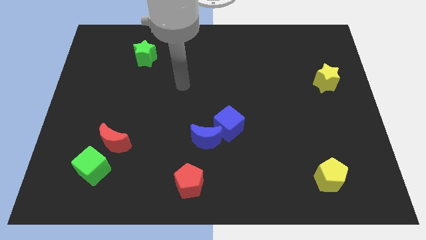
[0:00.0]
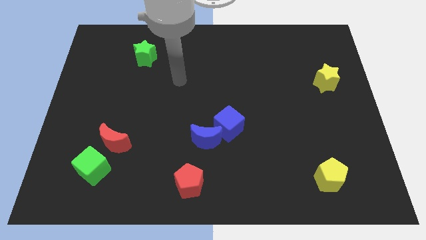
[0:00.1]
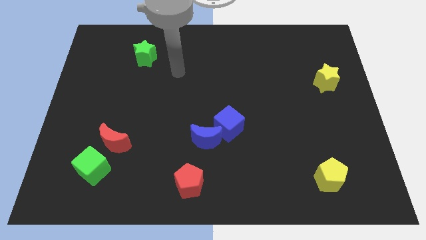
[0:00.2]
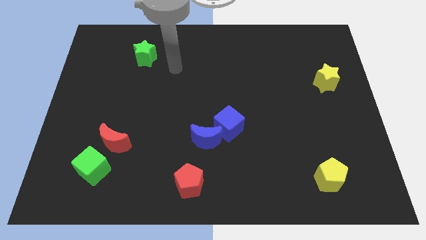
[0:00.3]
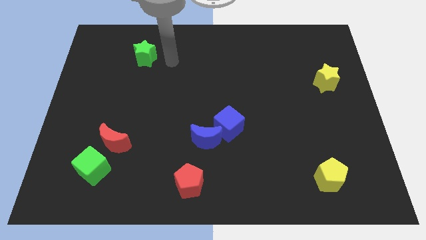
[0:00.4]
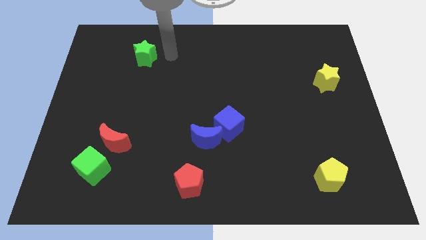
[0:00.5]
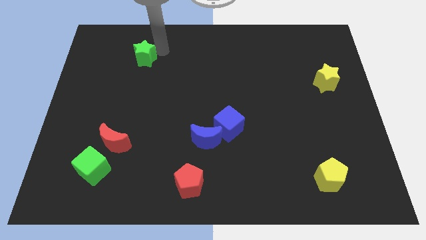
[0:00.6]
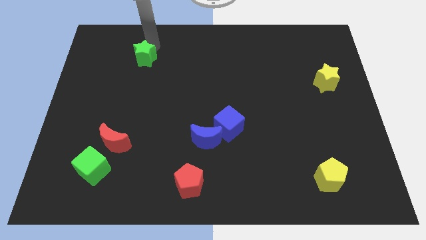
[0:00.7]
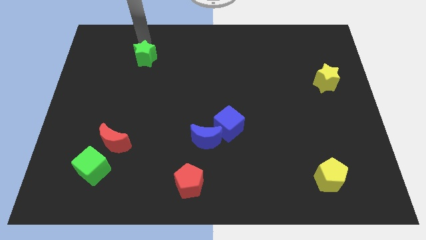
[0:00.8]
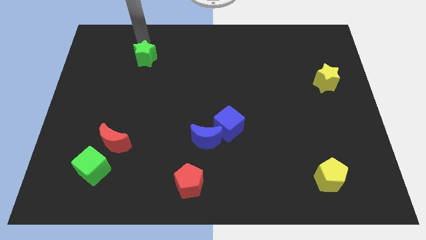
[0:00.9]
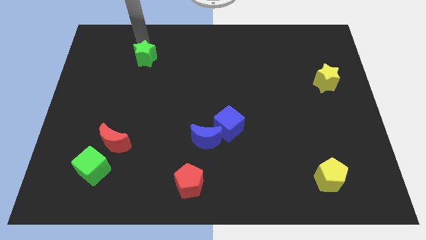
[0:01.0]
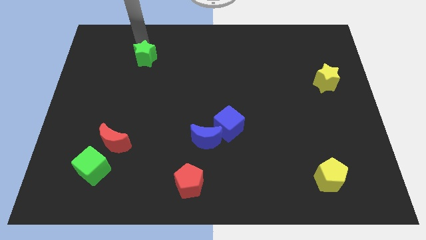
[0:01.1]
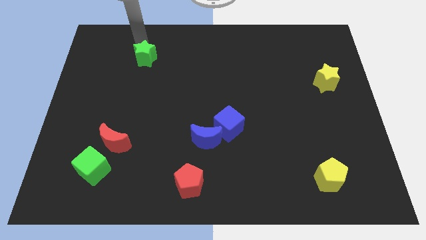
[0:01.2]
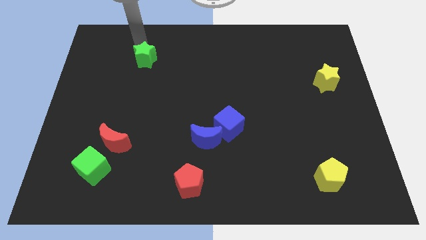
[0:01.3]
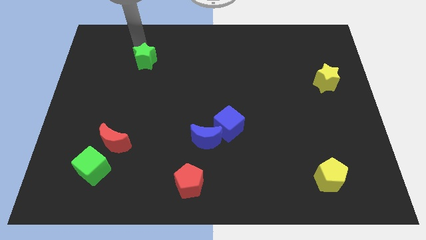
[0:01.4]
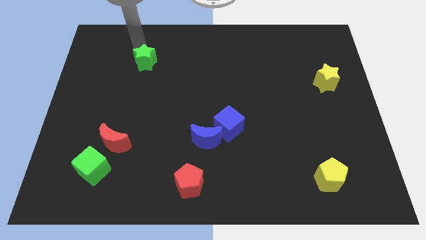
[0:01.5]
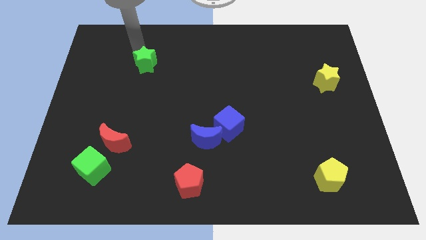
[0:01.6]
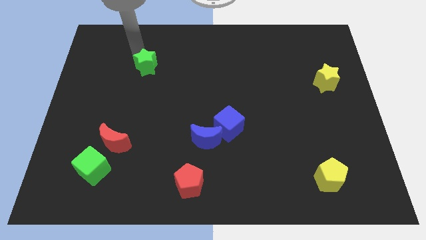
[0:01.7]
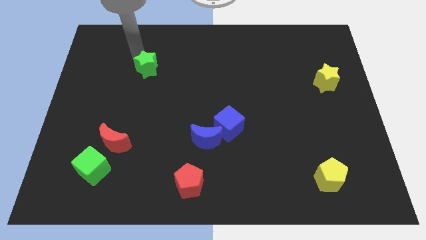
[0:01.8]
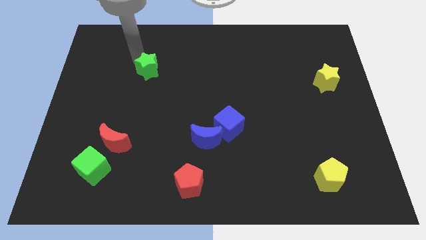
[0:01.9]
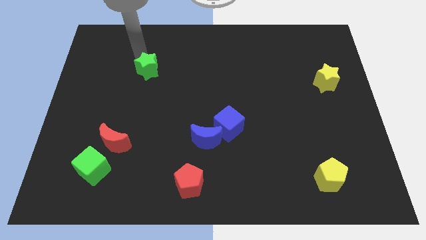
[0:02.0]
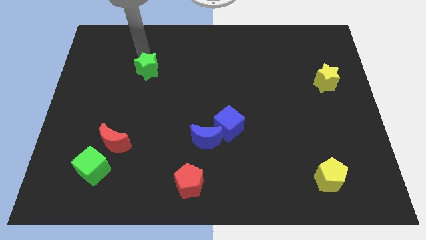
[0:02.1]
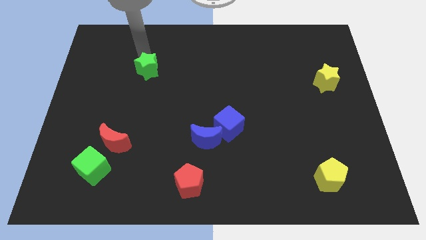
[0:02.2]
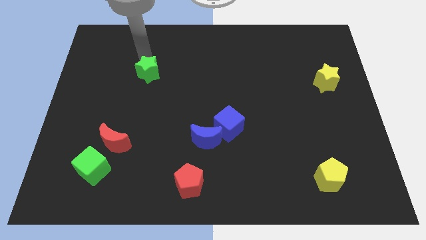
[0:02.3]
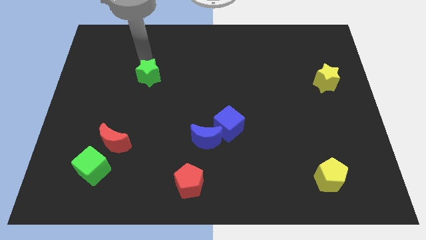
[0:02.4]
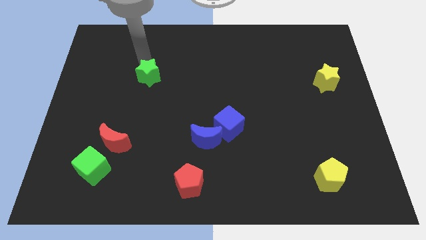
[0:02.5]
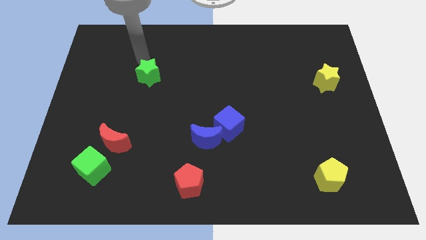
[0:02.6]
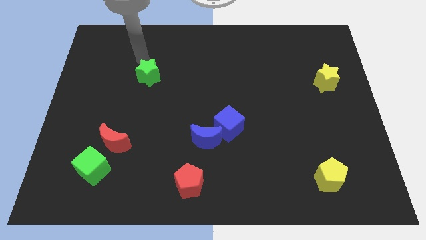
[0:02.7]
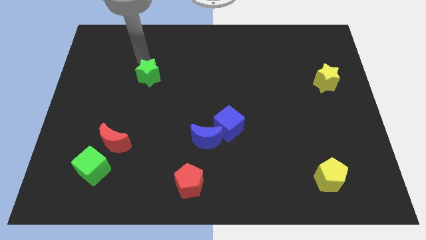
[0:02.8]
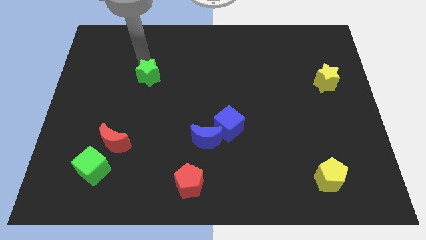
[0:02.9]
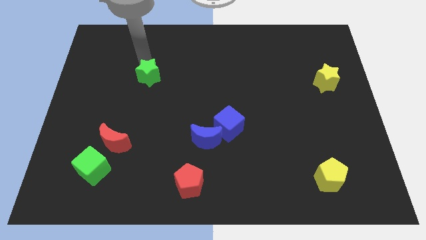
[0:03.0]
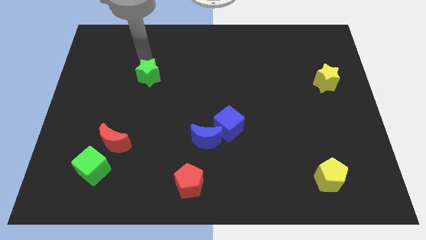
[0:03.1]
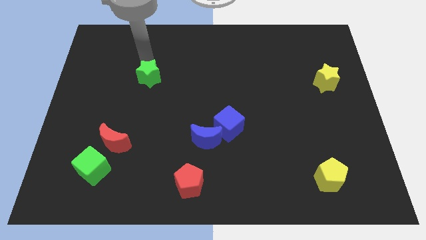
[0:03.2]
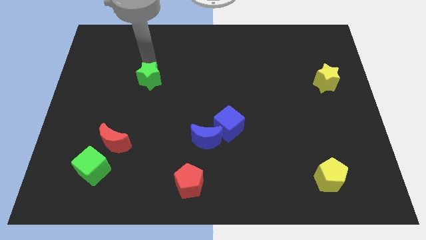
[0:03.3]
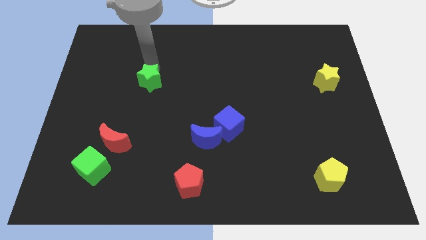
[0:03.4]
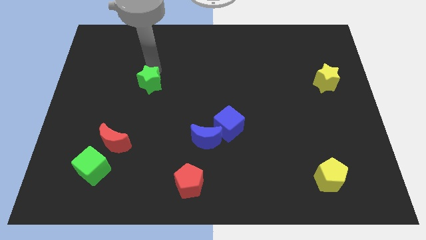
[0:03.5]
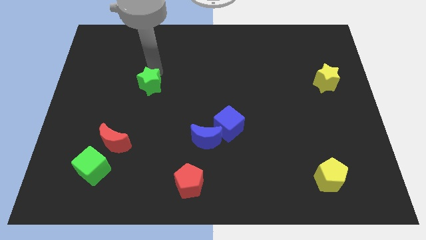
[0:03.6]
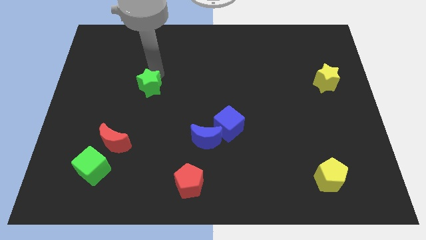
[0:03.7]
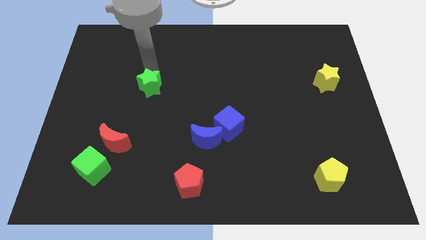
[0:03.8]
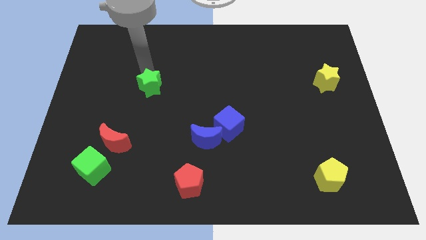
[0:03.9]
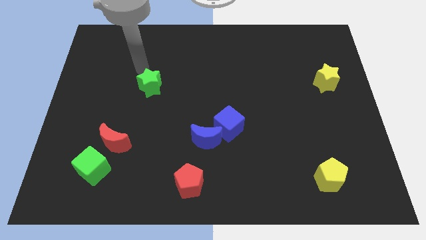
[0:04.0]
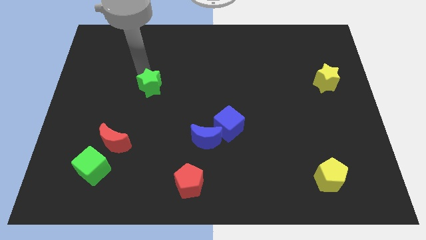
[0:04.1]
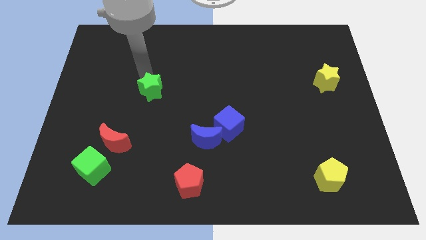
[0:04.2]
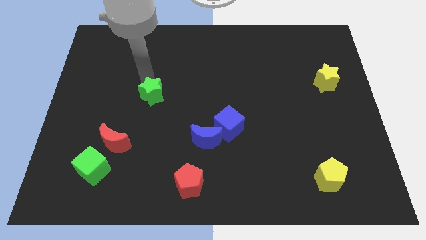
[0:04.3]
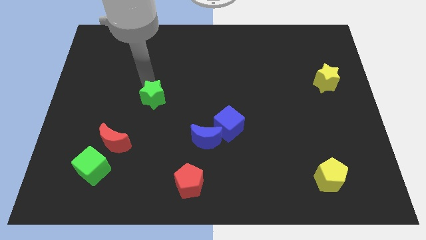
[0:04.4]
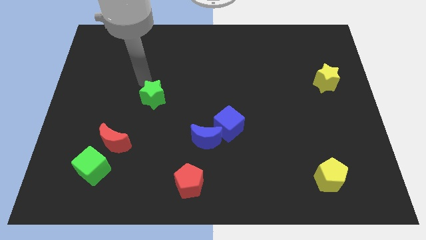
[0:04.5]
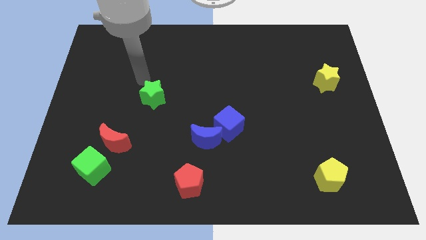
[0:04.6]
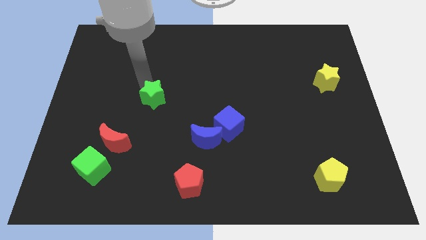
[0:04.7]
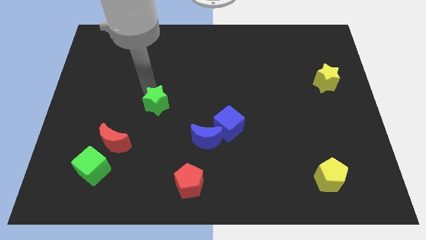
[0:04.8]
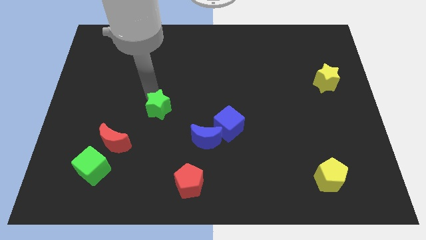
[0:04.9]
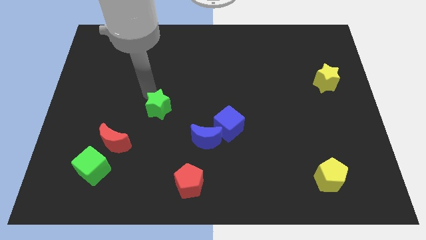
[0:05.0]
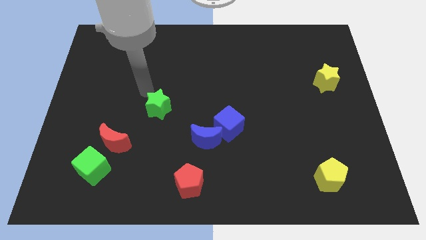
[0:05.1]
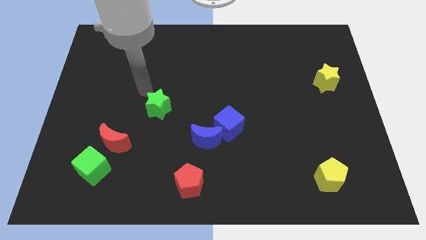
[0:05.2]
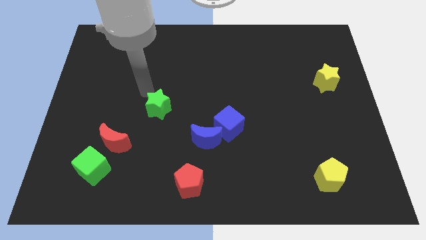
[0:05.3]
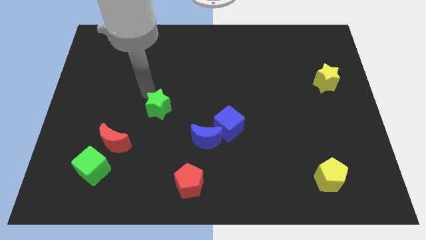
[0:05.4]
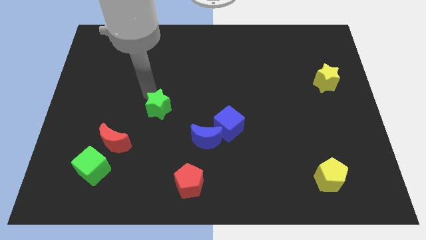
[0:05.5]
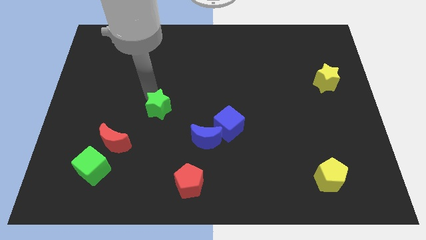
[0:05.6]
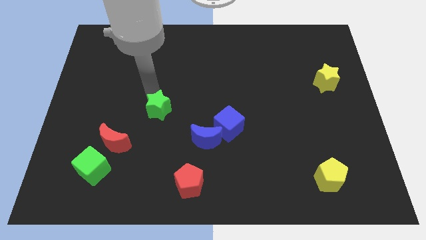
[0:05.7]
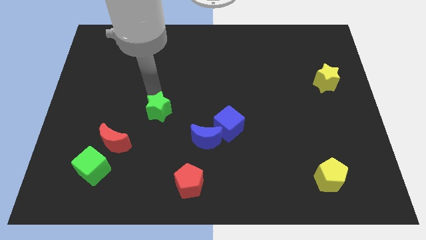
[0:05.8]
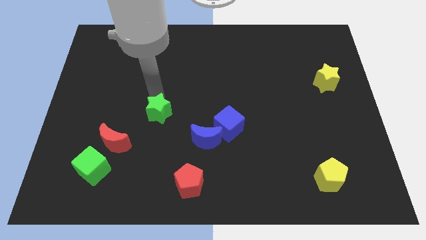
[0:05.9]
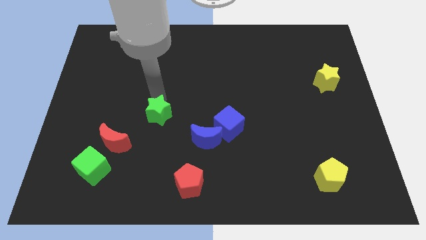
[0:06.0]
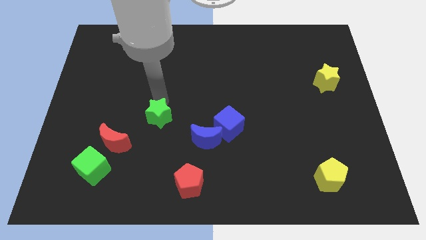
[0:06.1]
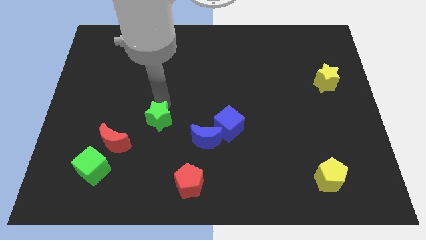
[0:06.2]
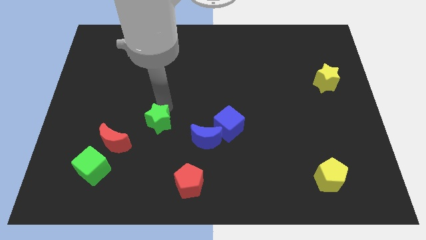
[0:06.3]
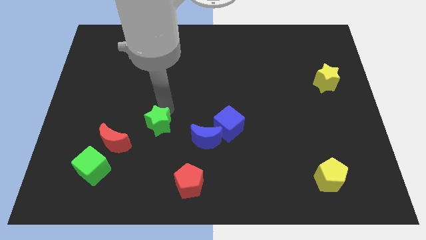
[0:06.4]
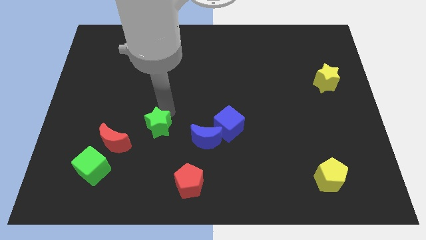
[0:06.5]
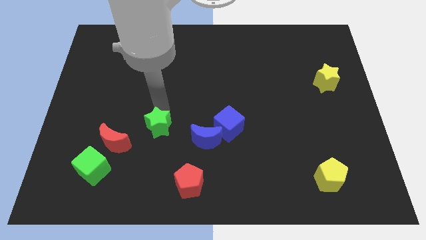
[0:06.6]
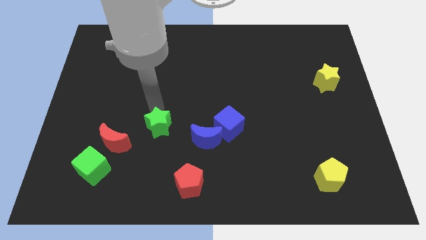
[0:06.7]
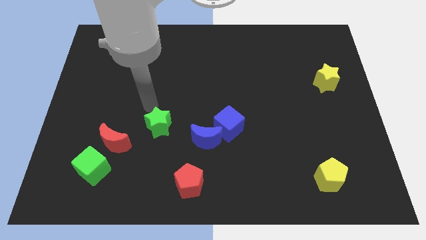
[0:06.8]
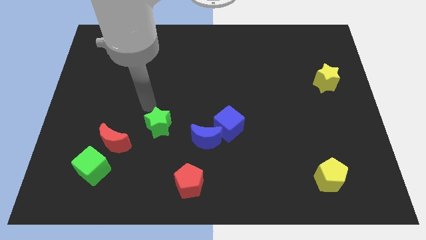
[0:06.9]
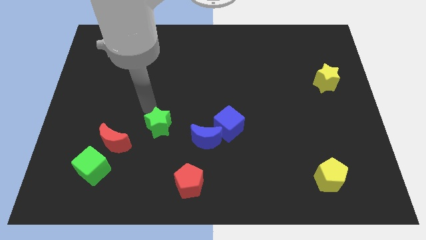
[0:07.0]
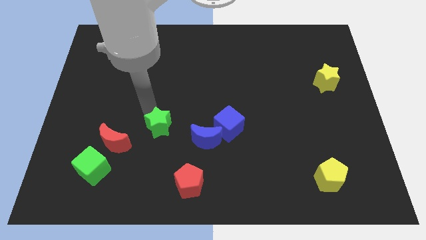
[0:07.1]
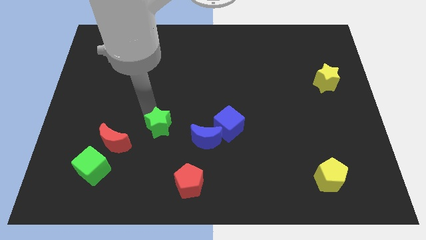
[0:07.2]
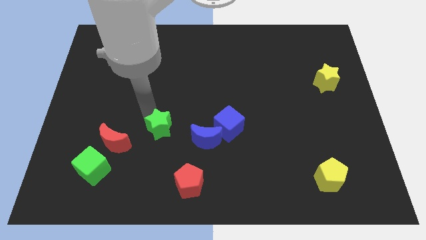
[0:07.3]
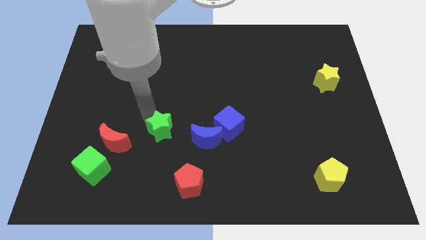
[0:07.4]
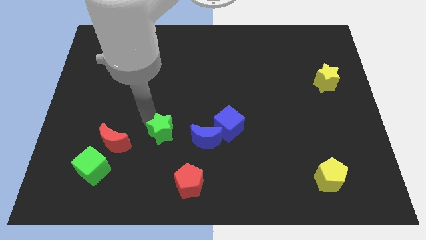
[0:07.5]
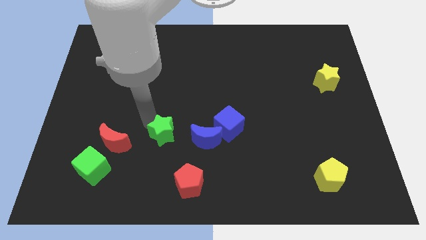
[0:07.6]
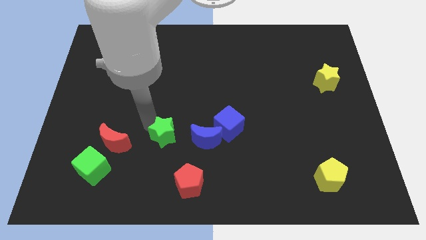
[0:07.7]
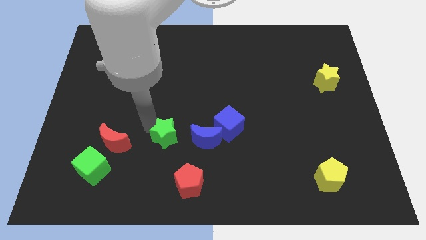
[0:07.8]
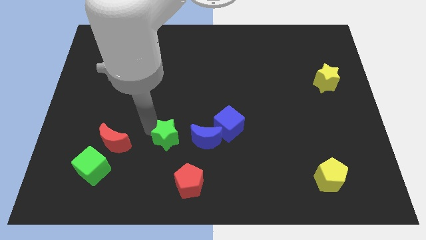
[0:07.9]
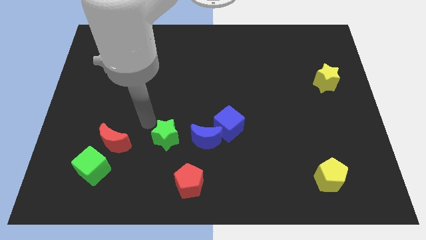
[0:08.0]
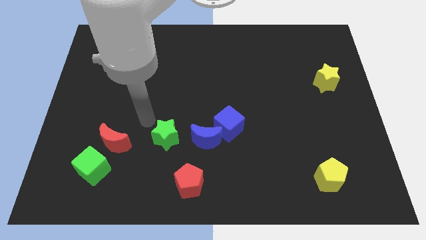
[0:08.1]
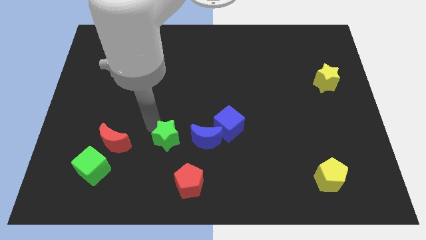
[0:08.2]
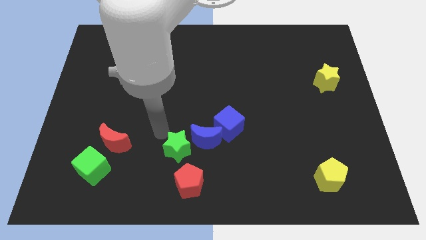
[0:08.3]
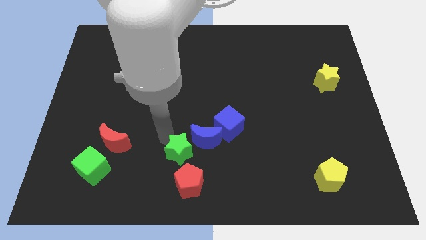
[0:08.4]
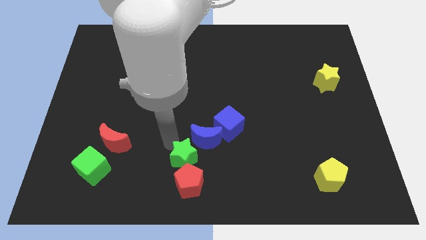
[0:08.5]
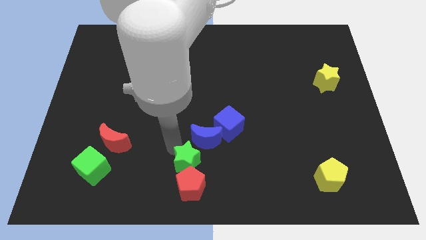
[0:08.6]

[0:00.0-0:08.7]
put the green star to the bottom side
